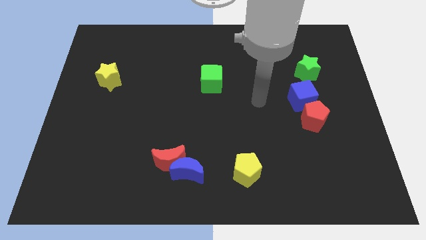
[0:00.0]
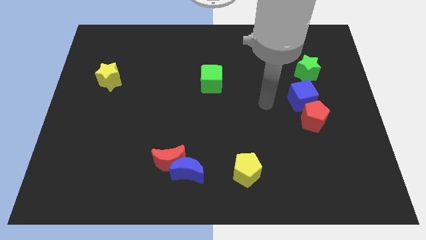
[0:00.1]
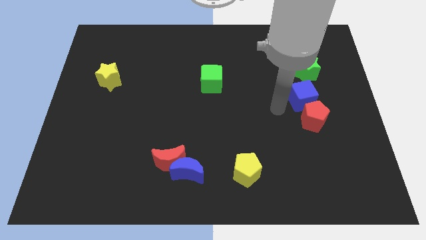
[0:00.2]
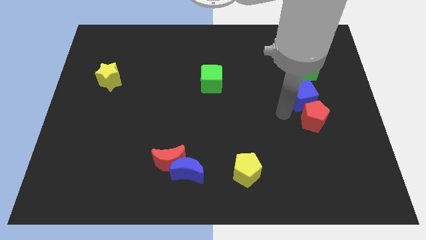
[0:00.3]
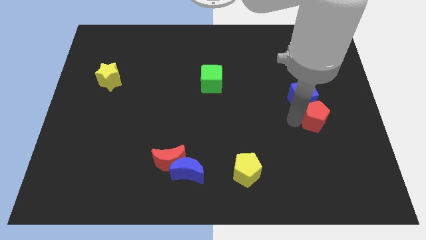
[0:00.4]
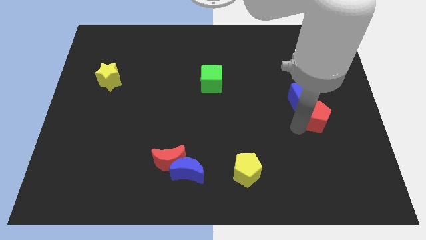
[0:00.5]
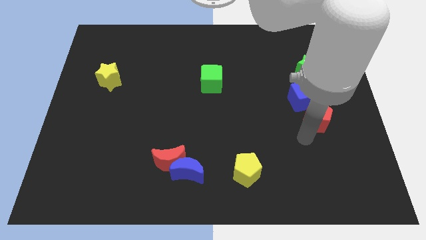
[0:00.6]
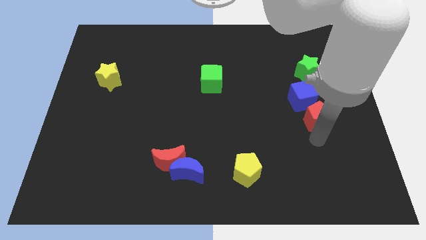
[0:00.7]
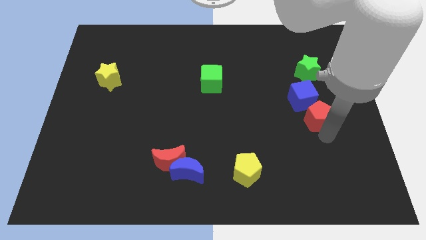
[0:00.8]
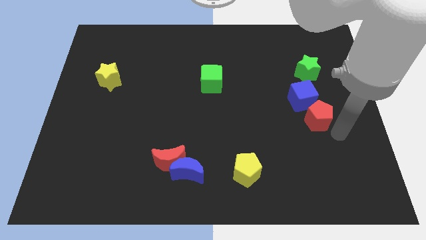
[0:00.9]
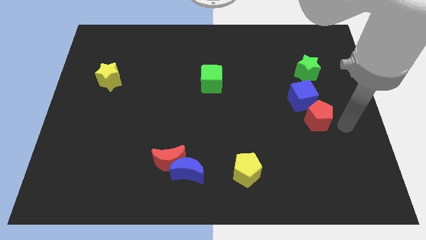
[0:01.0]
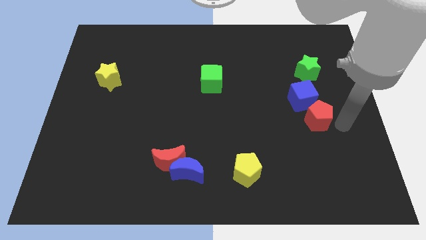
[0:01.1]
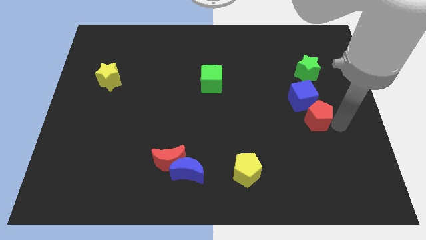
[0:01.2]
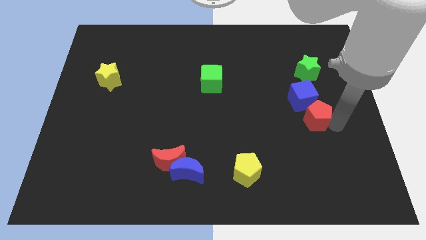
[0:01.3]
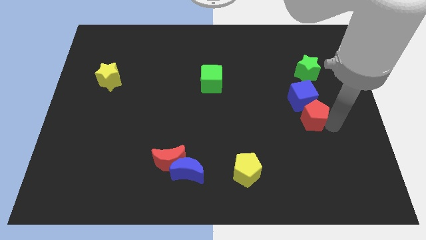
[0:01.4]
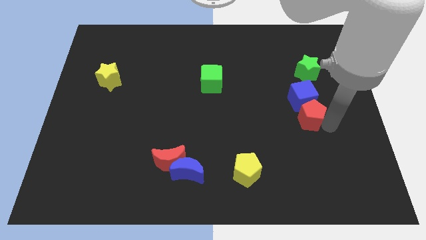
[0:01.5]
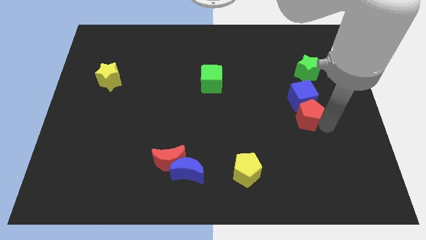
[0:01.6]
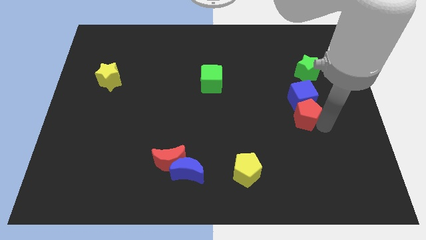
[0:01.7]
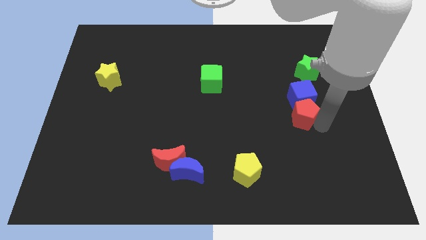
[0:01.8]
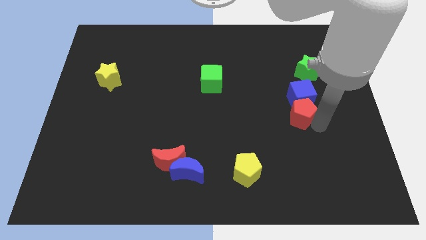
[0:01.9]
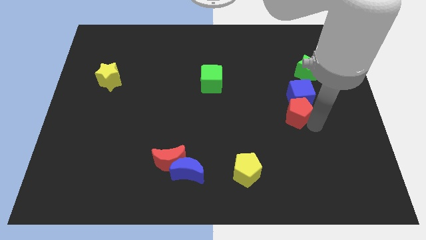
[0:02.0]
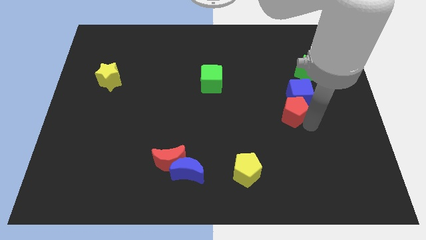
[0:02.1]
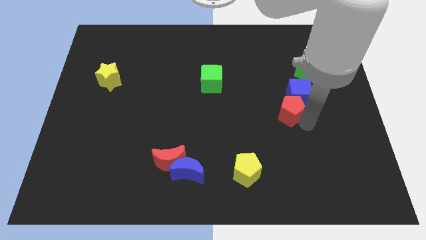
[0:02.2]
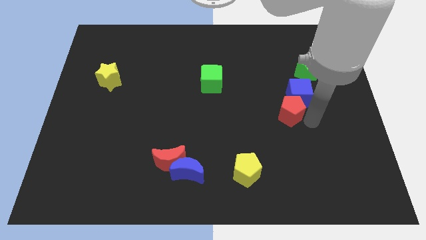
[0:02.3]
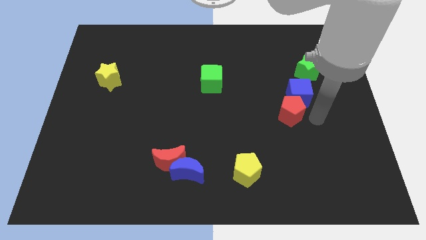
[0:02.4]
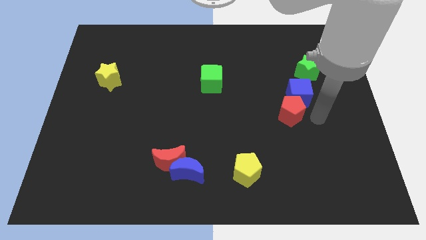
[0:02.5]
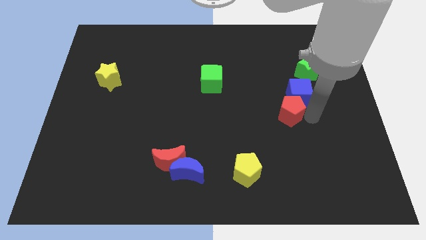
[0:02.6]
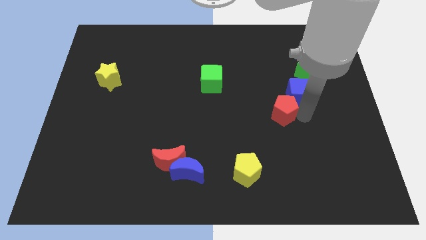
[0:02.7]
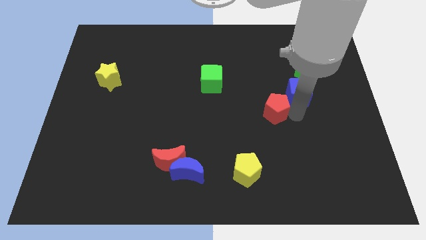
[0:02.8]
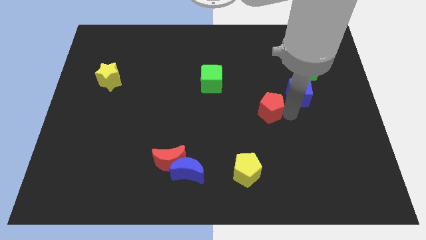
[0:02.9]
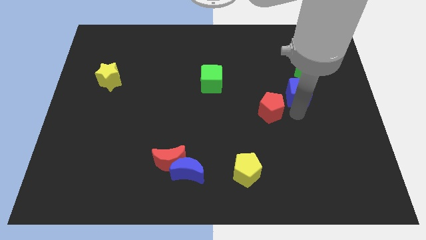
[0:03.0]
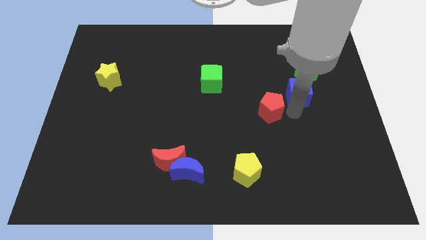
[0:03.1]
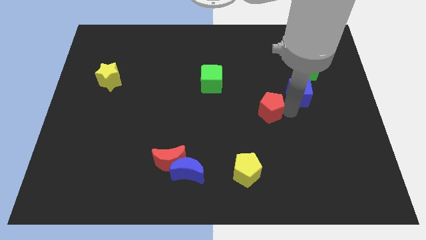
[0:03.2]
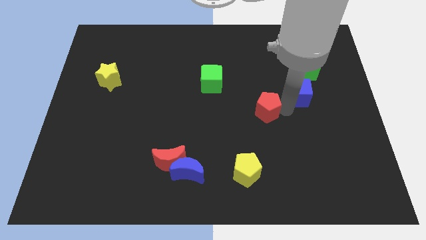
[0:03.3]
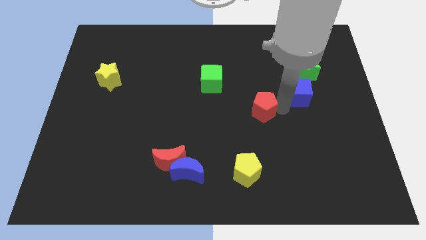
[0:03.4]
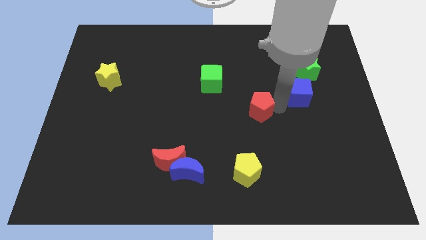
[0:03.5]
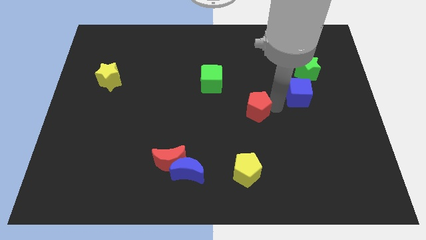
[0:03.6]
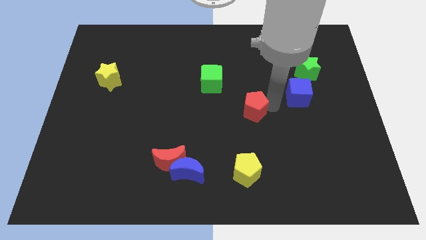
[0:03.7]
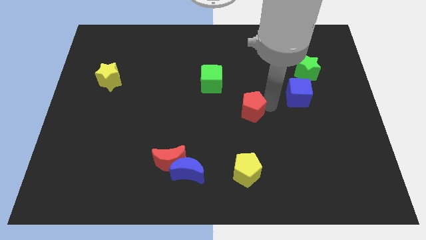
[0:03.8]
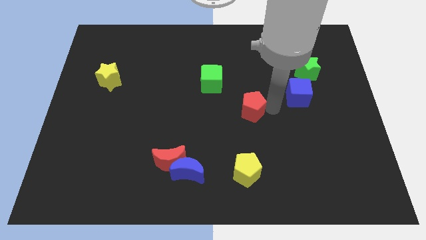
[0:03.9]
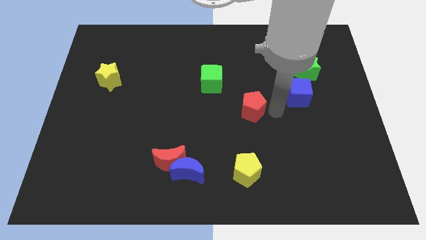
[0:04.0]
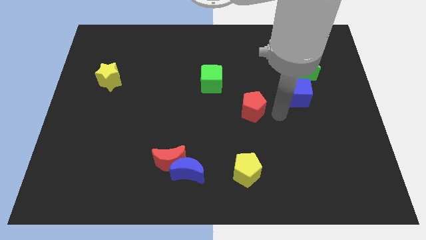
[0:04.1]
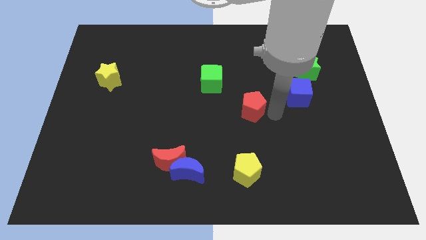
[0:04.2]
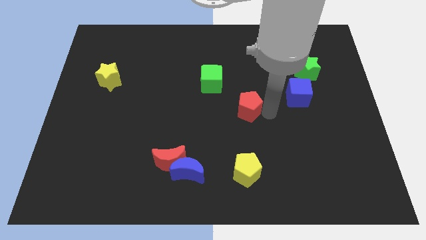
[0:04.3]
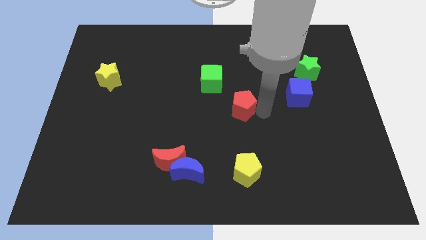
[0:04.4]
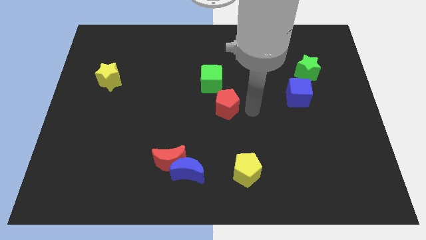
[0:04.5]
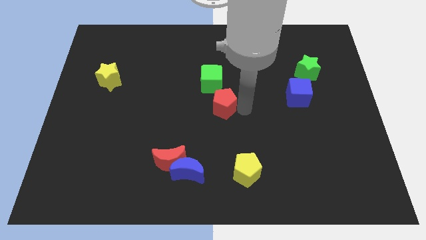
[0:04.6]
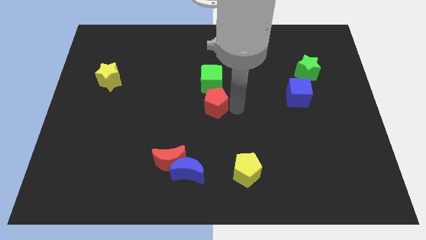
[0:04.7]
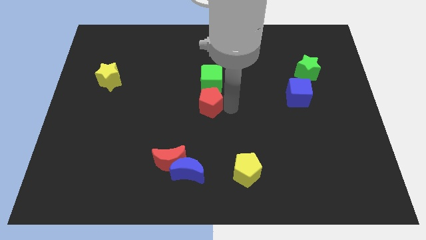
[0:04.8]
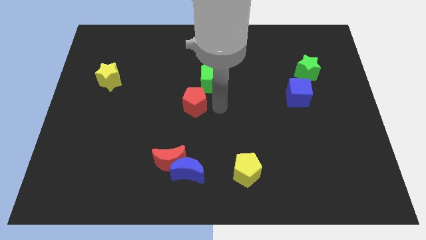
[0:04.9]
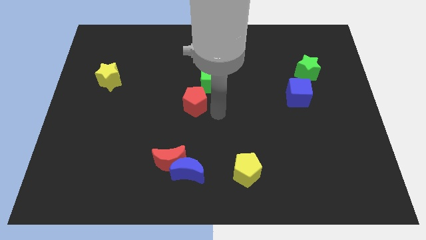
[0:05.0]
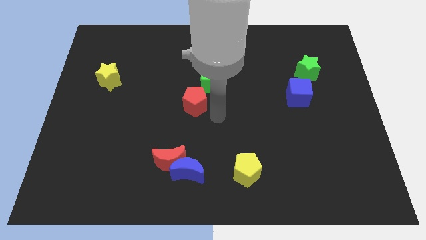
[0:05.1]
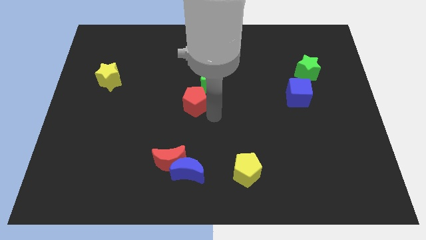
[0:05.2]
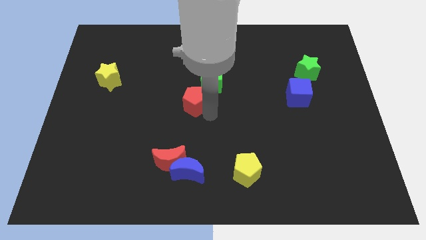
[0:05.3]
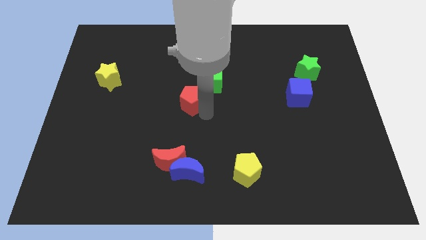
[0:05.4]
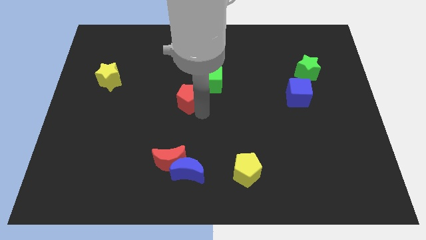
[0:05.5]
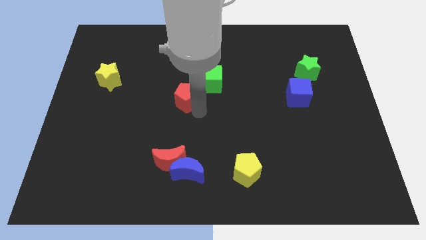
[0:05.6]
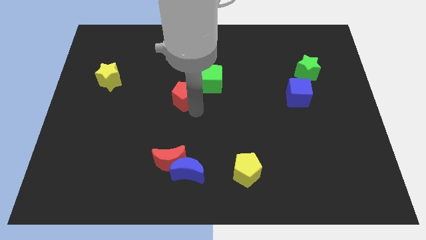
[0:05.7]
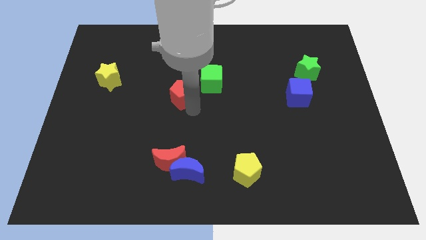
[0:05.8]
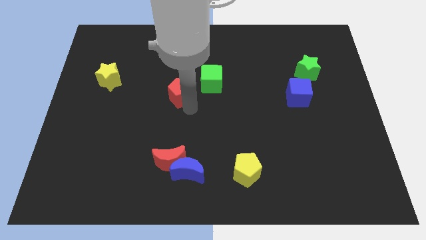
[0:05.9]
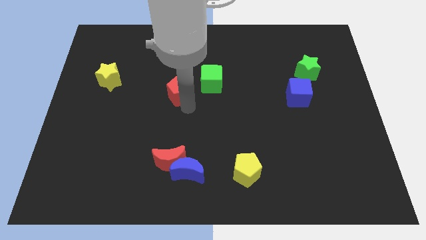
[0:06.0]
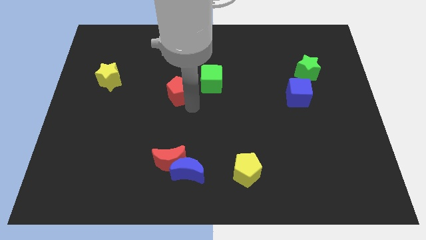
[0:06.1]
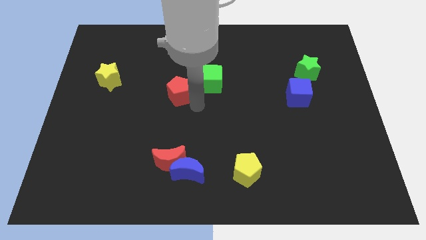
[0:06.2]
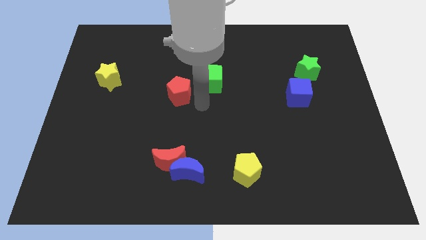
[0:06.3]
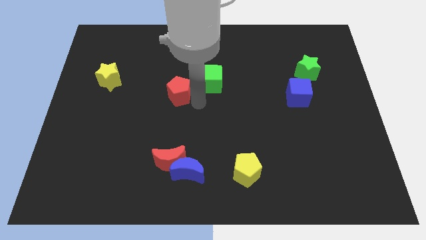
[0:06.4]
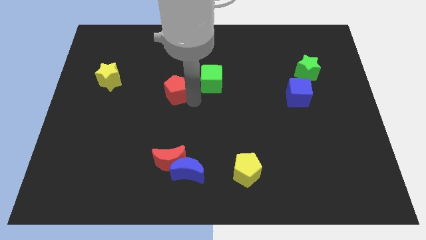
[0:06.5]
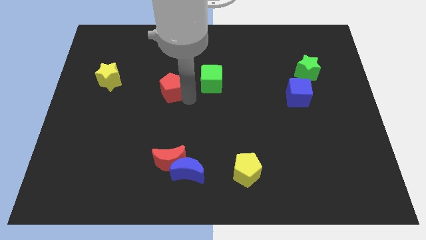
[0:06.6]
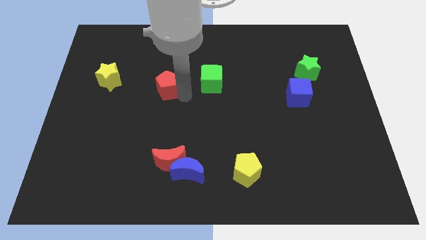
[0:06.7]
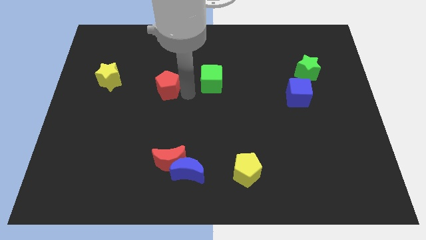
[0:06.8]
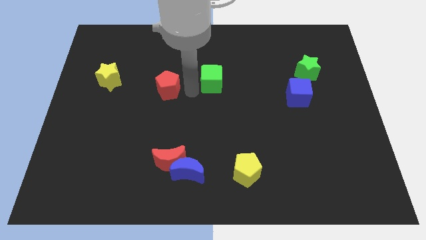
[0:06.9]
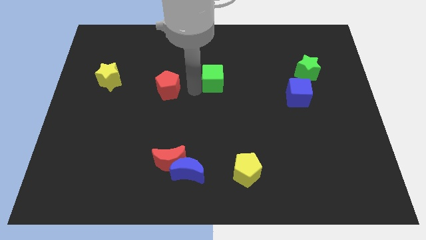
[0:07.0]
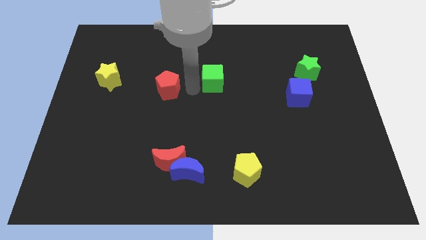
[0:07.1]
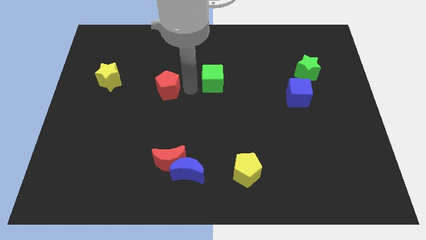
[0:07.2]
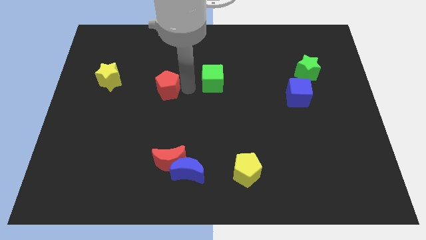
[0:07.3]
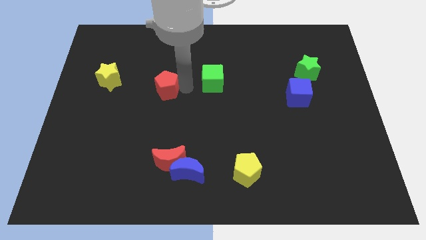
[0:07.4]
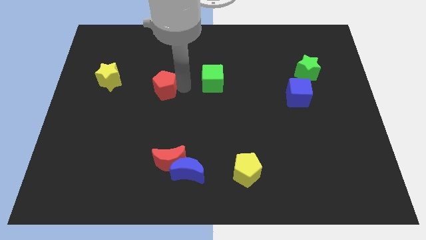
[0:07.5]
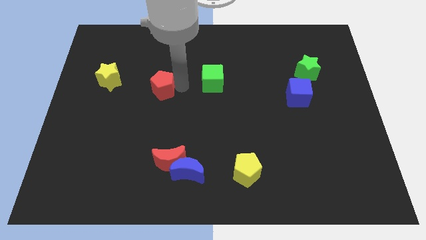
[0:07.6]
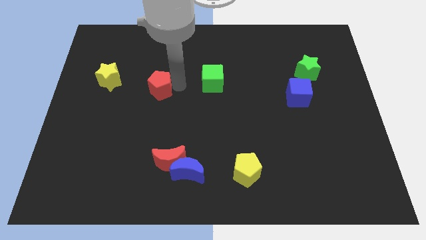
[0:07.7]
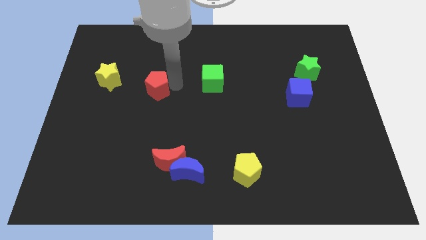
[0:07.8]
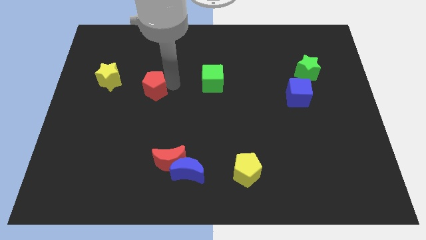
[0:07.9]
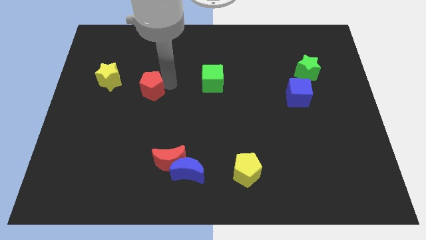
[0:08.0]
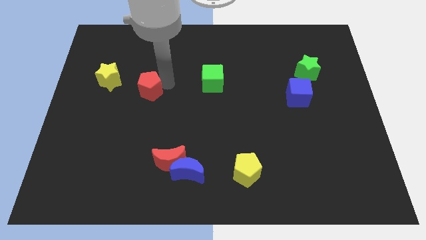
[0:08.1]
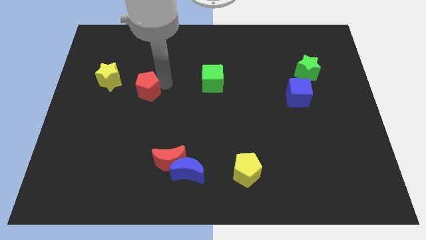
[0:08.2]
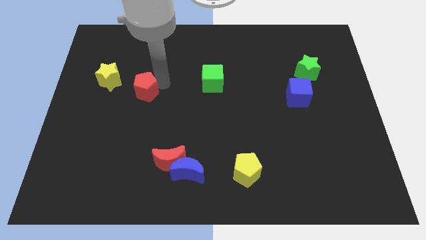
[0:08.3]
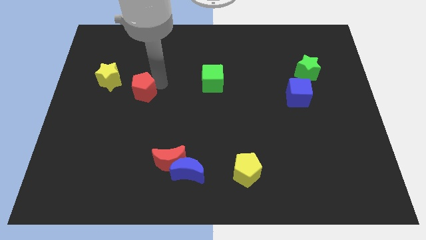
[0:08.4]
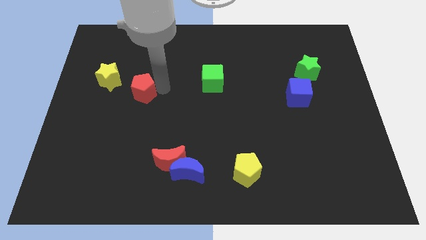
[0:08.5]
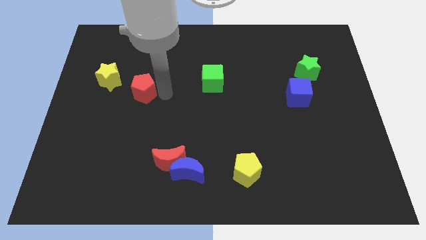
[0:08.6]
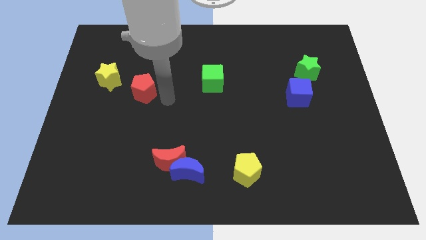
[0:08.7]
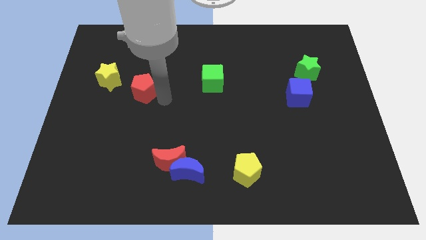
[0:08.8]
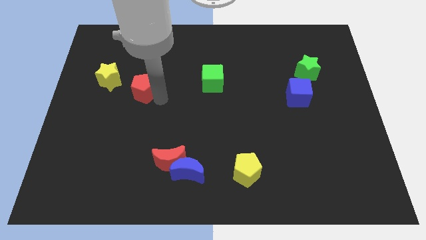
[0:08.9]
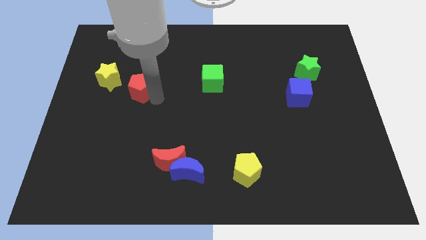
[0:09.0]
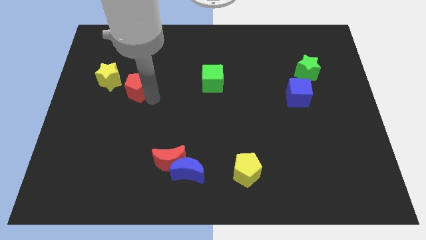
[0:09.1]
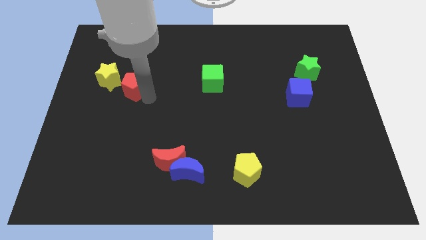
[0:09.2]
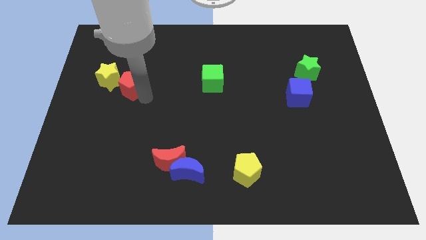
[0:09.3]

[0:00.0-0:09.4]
put the red pentagon close to the yellow star
